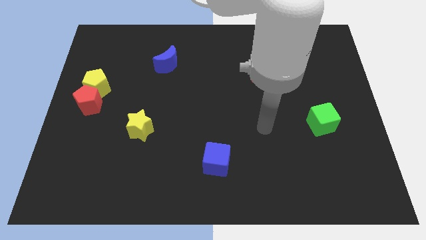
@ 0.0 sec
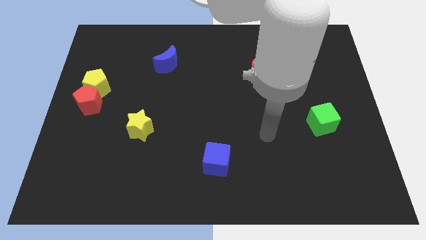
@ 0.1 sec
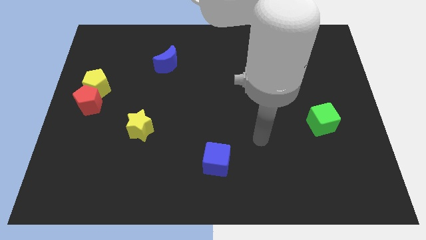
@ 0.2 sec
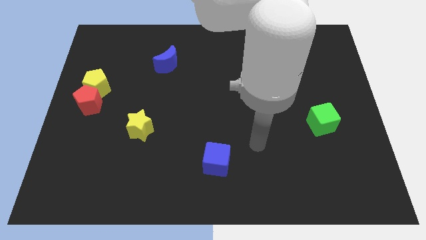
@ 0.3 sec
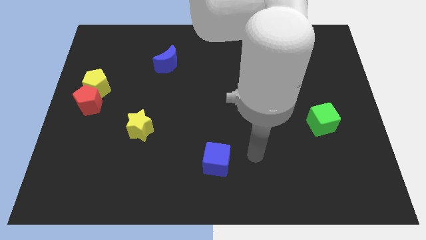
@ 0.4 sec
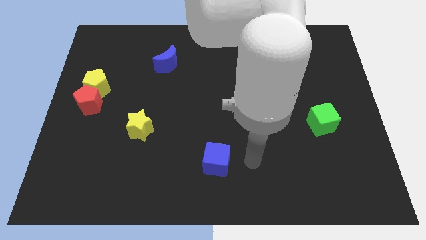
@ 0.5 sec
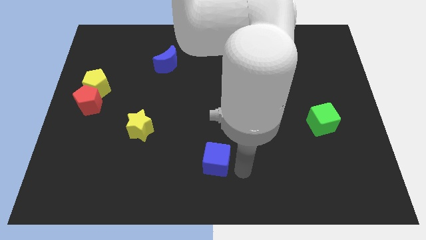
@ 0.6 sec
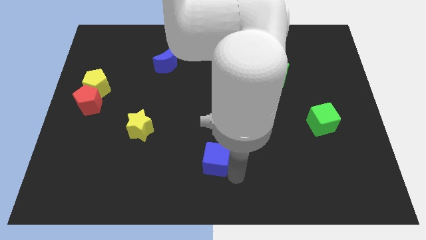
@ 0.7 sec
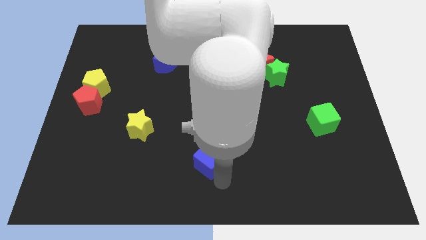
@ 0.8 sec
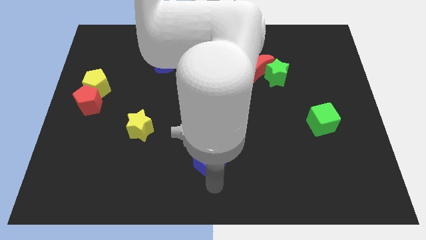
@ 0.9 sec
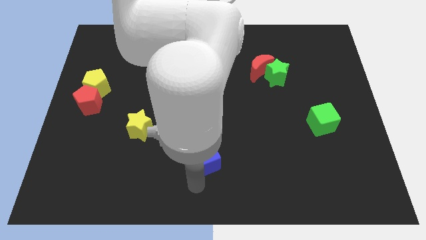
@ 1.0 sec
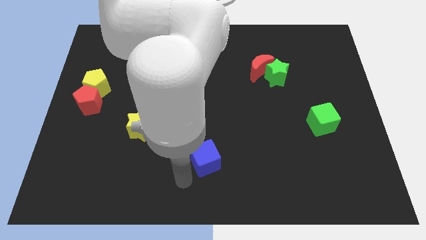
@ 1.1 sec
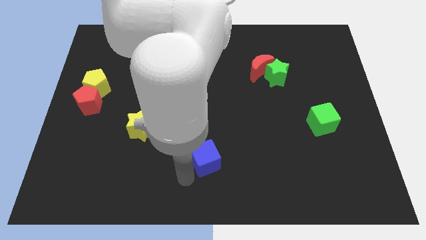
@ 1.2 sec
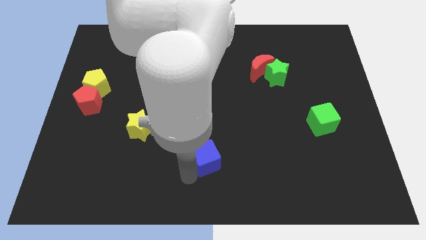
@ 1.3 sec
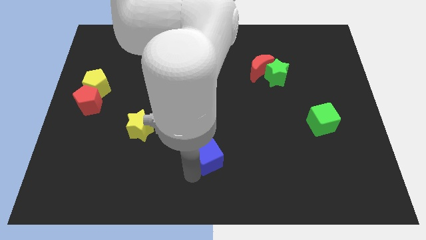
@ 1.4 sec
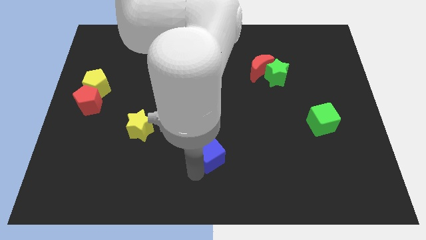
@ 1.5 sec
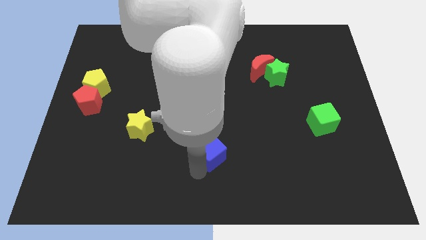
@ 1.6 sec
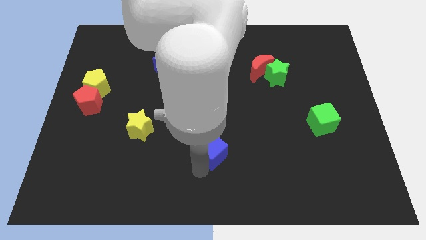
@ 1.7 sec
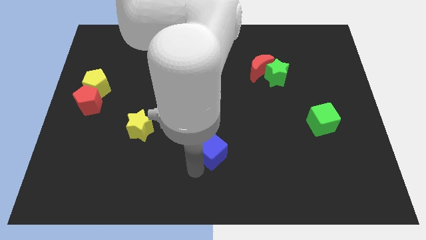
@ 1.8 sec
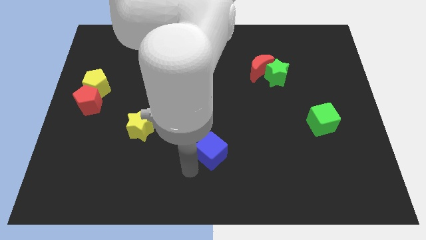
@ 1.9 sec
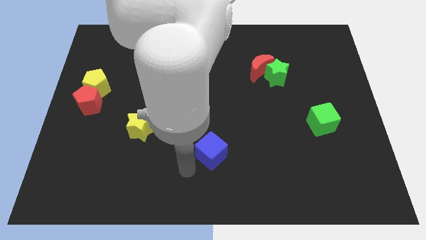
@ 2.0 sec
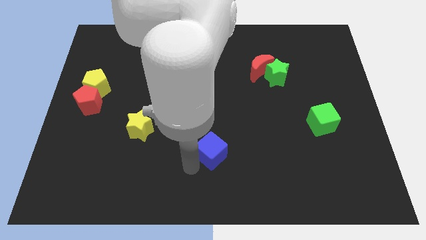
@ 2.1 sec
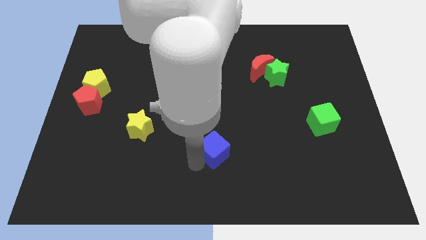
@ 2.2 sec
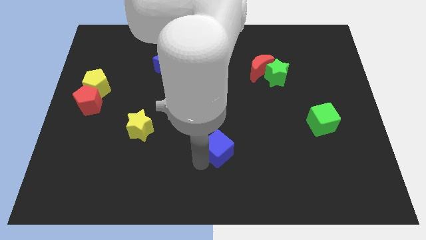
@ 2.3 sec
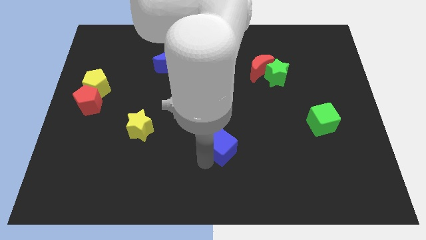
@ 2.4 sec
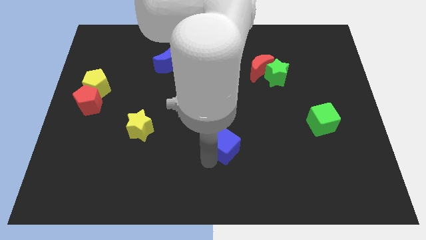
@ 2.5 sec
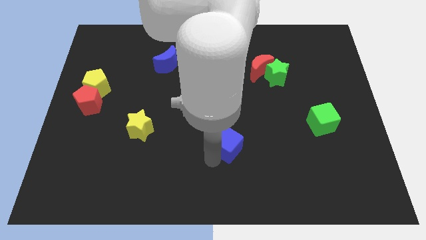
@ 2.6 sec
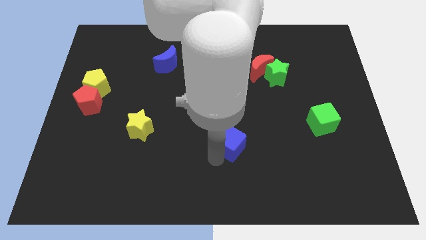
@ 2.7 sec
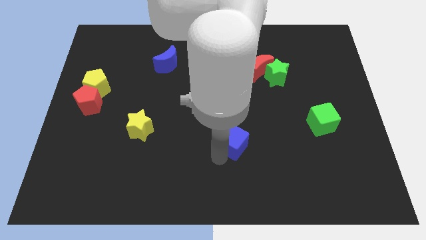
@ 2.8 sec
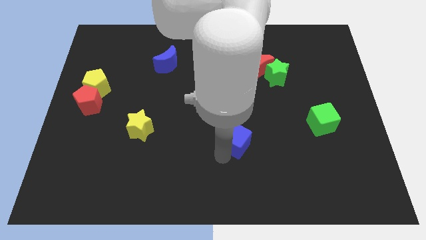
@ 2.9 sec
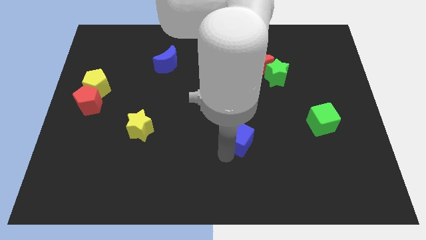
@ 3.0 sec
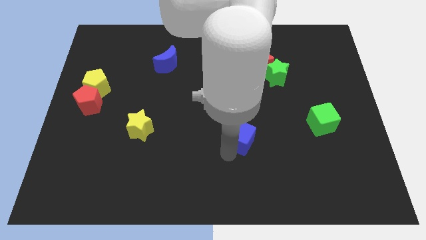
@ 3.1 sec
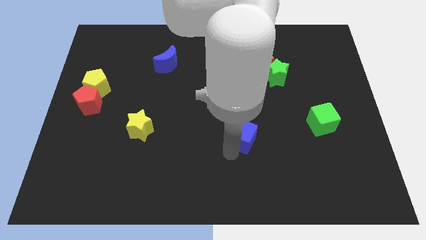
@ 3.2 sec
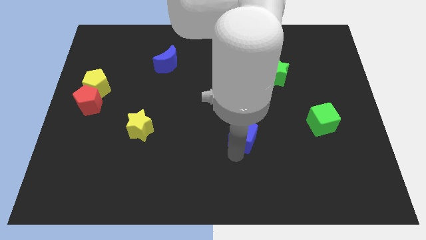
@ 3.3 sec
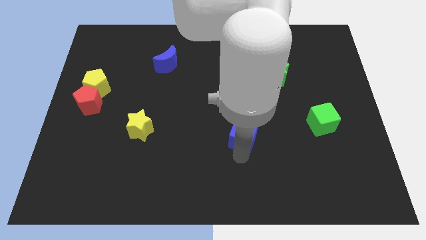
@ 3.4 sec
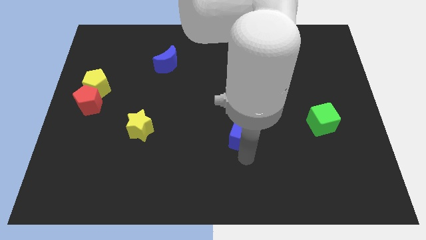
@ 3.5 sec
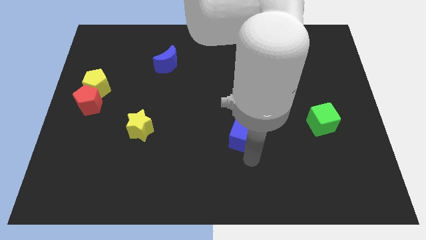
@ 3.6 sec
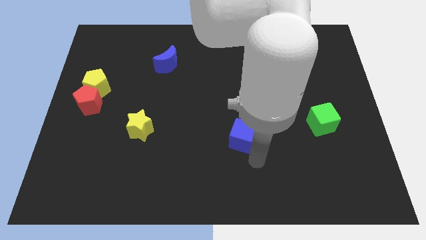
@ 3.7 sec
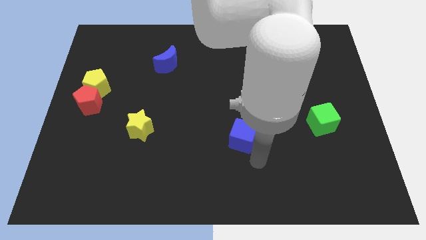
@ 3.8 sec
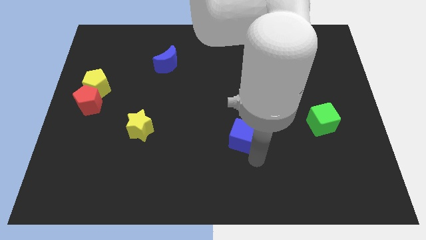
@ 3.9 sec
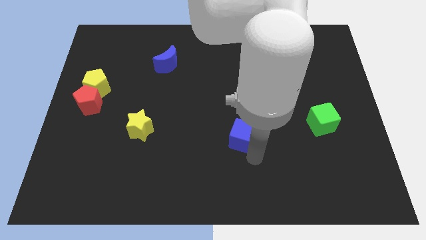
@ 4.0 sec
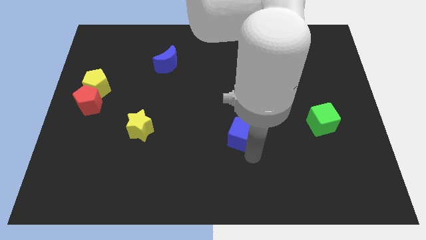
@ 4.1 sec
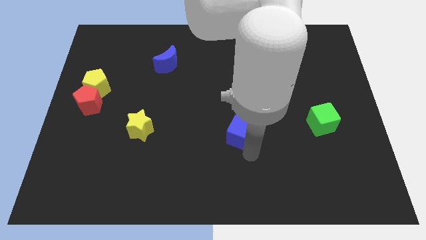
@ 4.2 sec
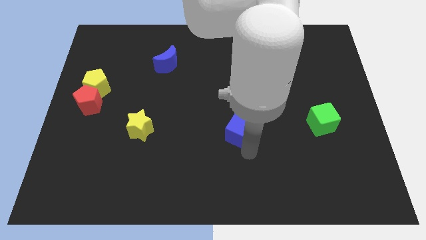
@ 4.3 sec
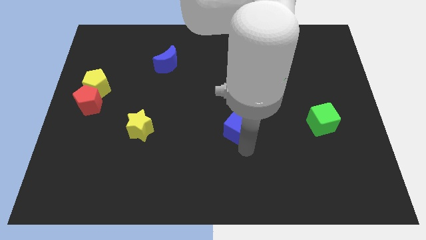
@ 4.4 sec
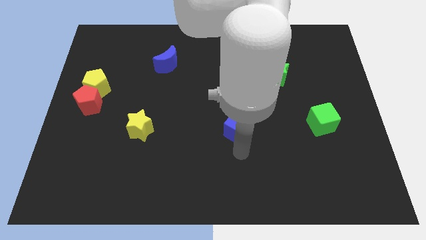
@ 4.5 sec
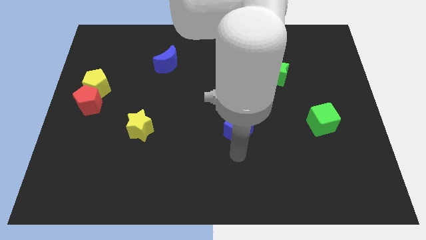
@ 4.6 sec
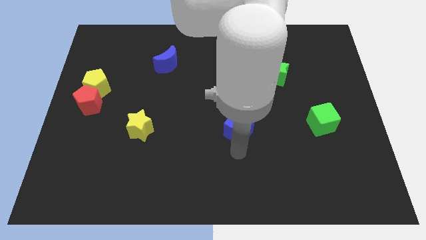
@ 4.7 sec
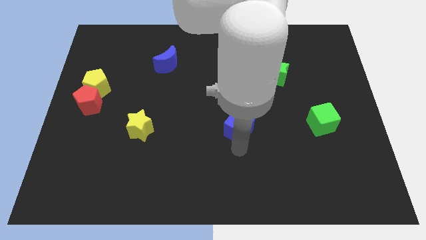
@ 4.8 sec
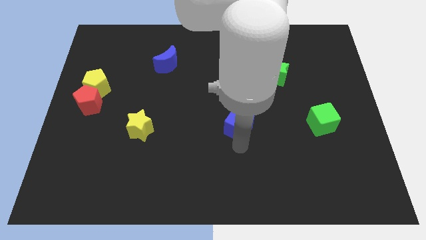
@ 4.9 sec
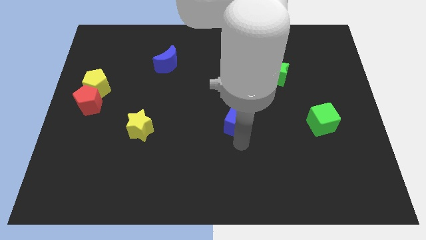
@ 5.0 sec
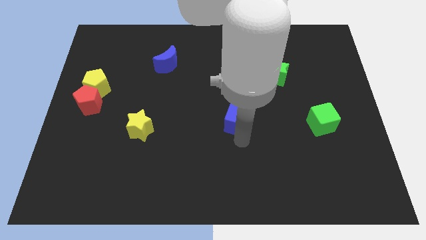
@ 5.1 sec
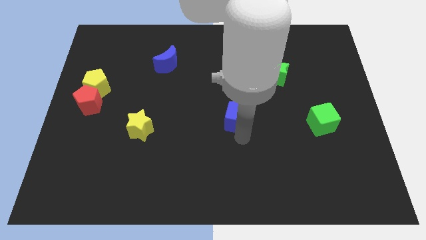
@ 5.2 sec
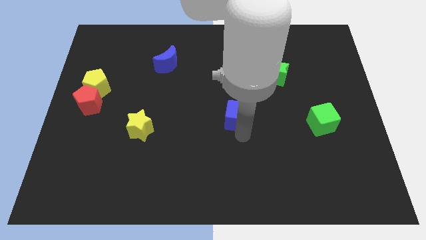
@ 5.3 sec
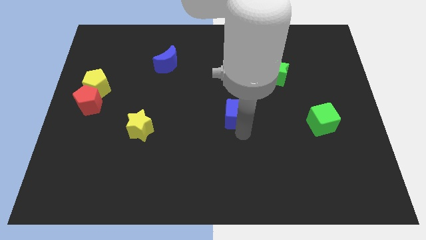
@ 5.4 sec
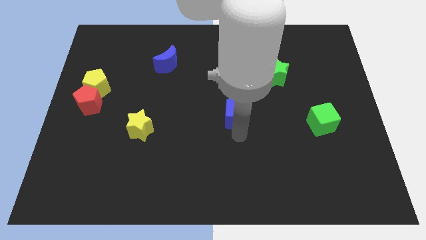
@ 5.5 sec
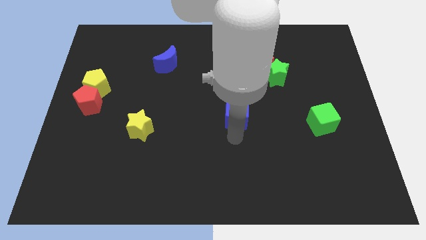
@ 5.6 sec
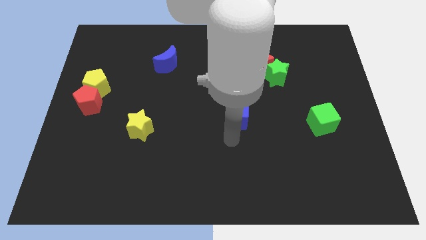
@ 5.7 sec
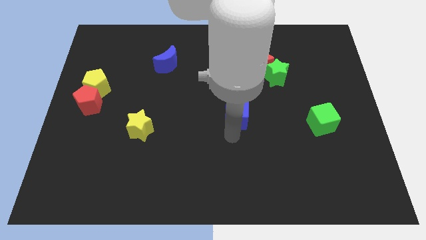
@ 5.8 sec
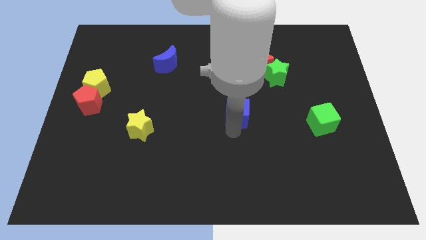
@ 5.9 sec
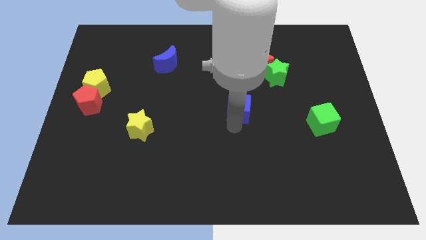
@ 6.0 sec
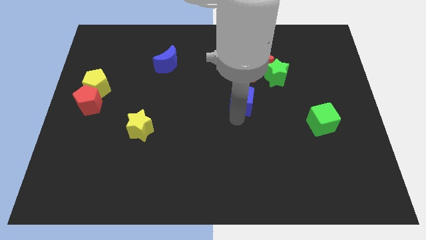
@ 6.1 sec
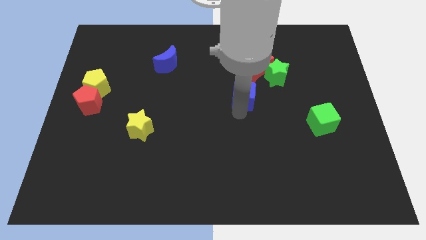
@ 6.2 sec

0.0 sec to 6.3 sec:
push the blue cube diagonally down and to the left of the red moon

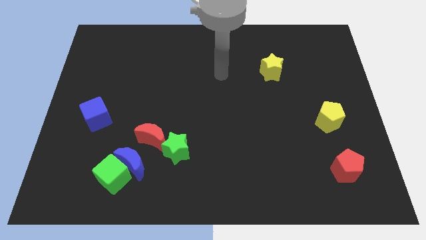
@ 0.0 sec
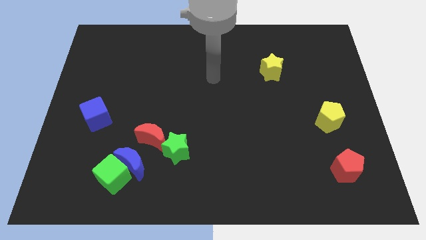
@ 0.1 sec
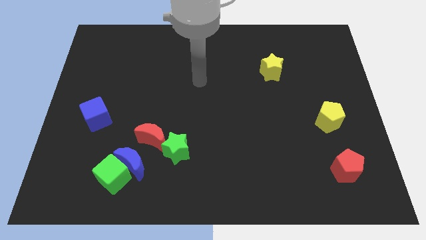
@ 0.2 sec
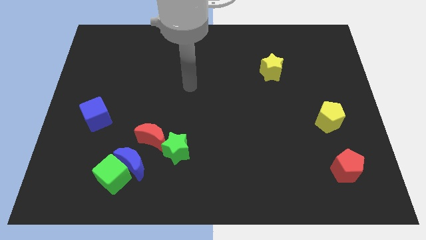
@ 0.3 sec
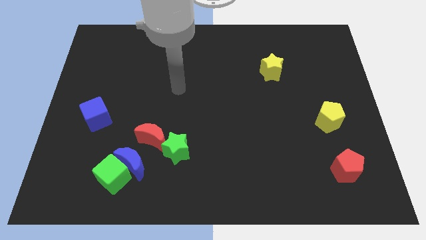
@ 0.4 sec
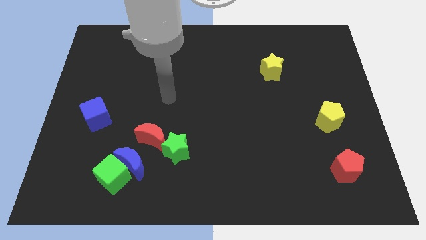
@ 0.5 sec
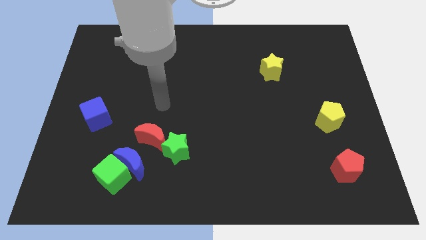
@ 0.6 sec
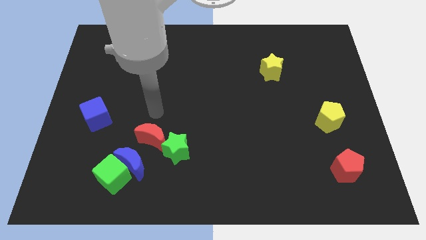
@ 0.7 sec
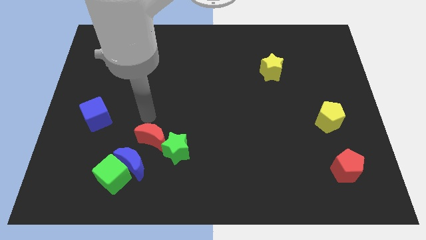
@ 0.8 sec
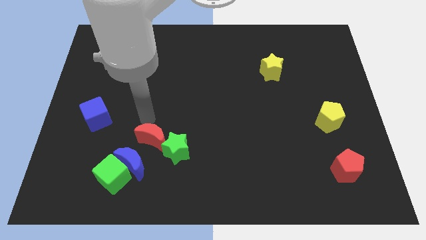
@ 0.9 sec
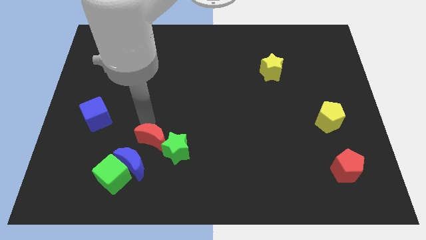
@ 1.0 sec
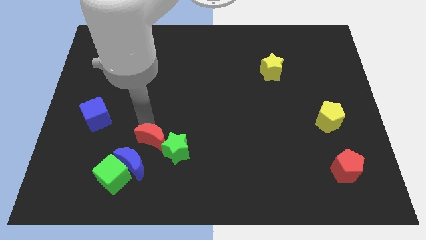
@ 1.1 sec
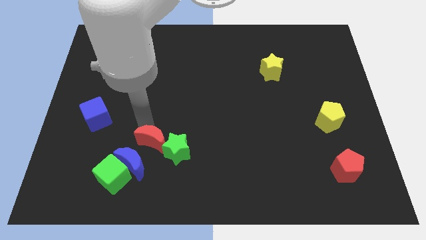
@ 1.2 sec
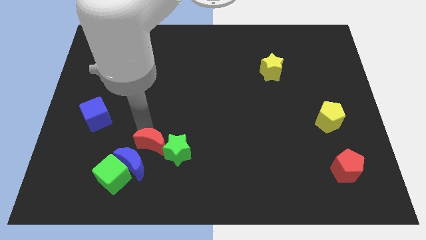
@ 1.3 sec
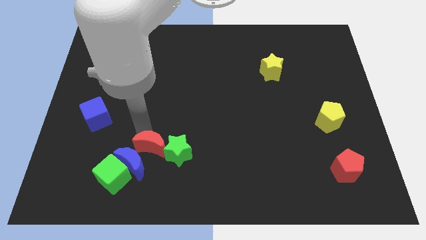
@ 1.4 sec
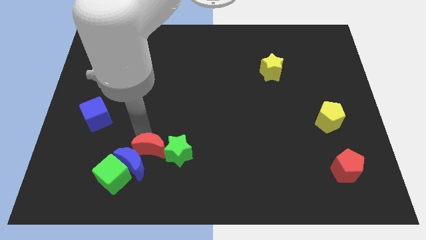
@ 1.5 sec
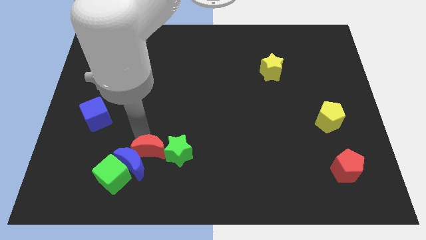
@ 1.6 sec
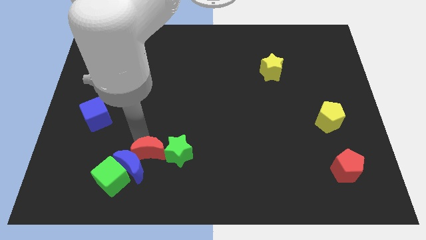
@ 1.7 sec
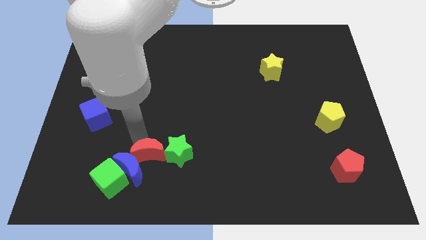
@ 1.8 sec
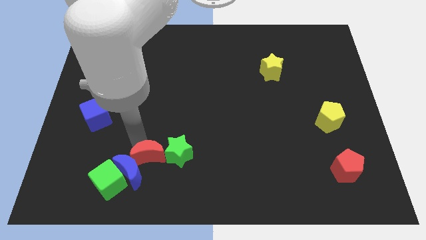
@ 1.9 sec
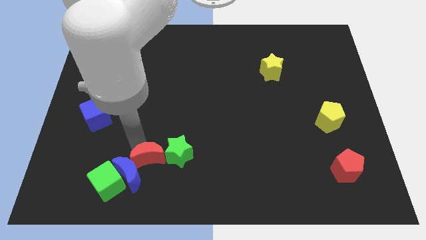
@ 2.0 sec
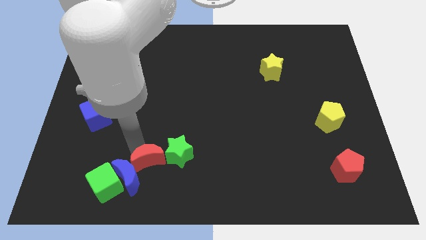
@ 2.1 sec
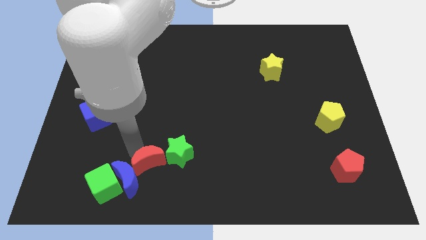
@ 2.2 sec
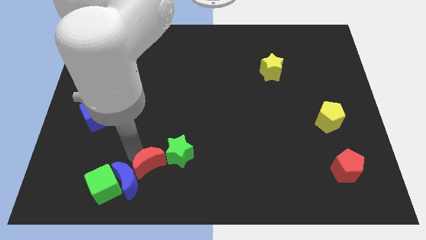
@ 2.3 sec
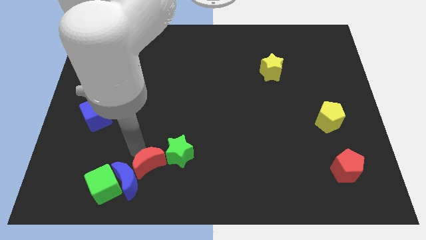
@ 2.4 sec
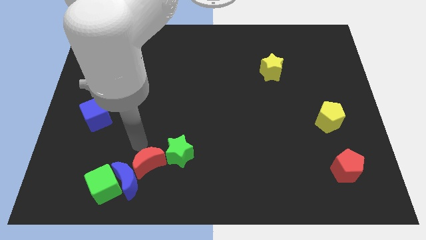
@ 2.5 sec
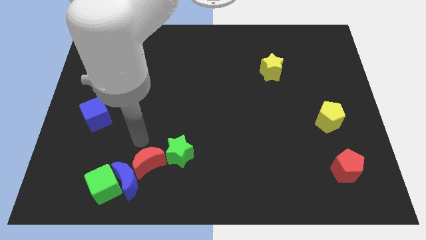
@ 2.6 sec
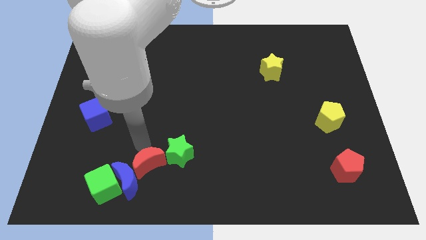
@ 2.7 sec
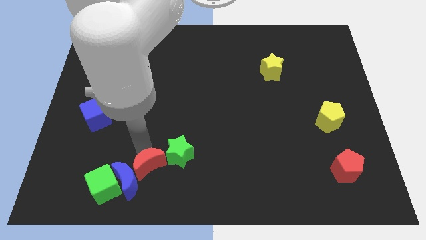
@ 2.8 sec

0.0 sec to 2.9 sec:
slide the red moon to the right side of the green cube
